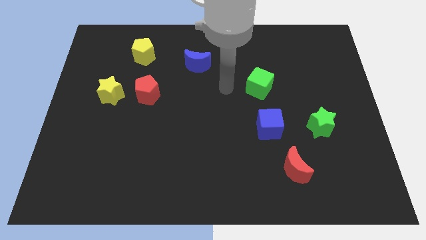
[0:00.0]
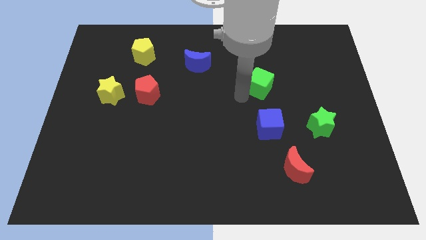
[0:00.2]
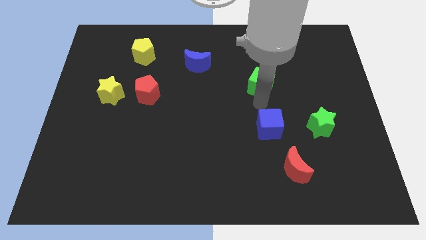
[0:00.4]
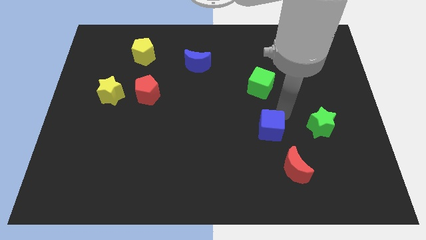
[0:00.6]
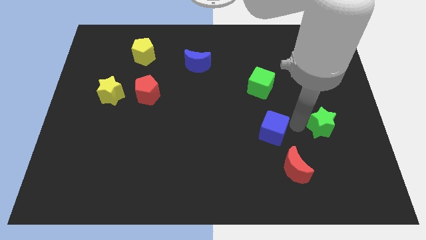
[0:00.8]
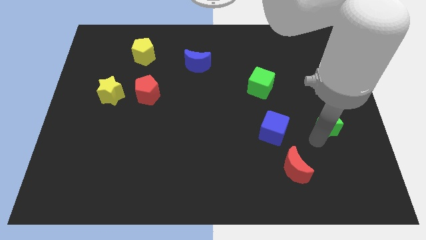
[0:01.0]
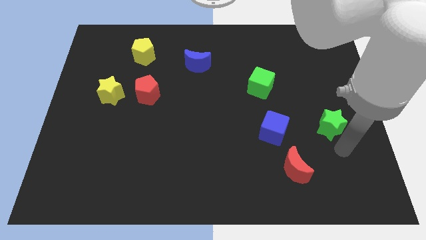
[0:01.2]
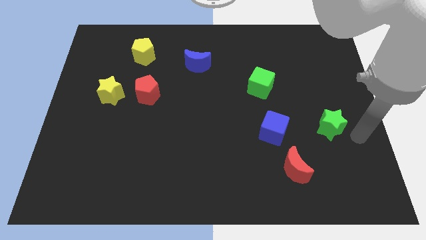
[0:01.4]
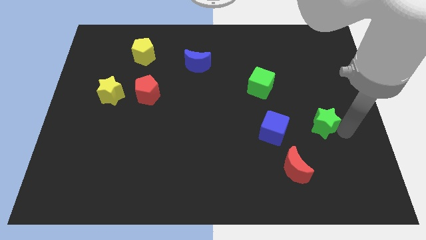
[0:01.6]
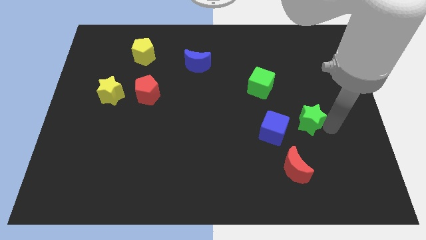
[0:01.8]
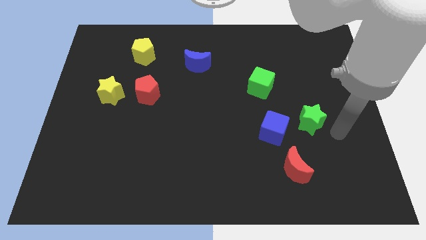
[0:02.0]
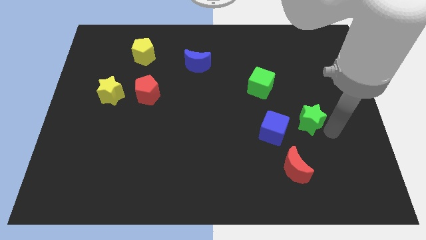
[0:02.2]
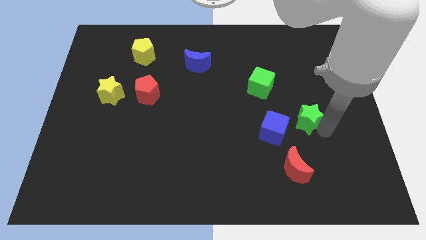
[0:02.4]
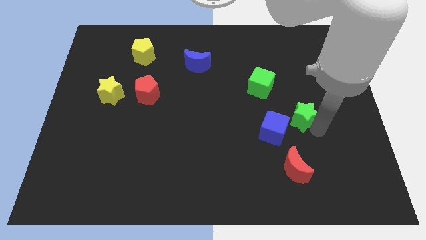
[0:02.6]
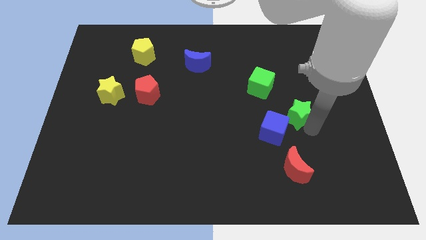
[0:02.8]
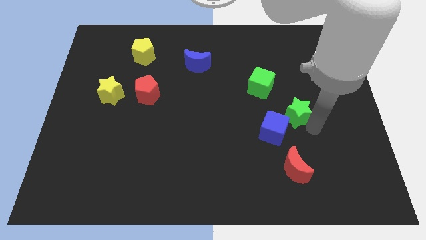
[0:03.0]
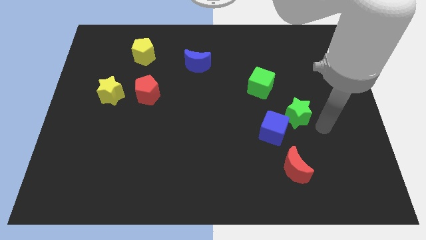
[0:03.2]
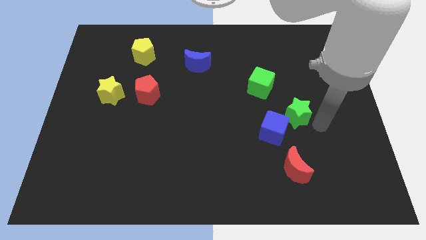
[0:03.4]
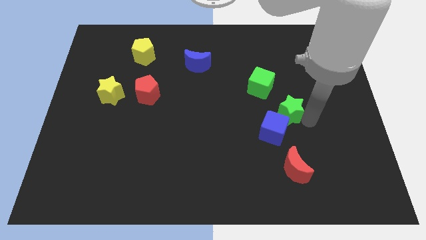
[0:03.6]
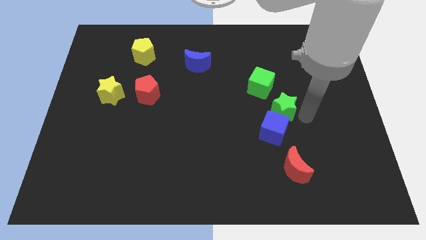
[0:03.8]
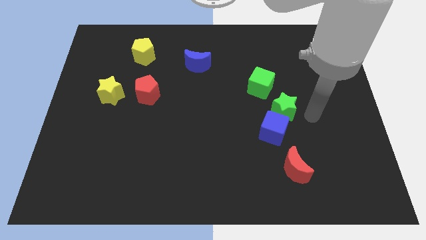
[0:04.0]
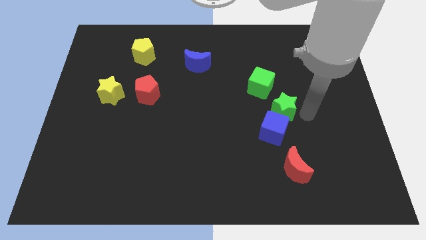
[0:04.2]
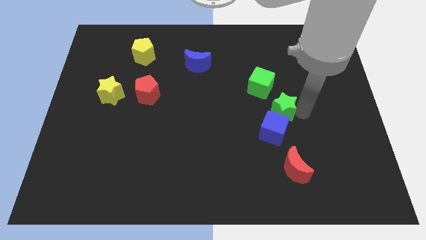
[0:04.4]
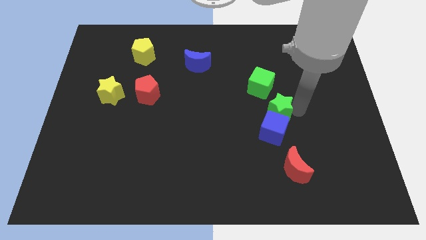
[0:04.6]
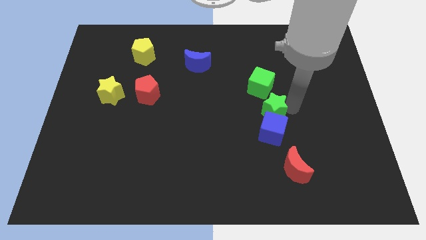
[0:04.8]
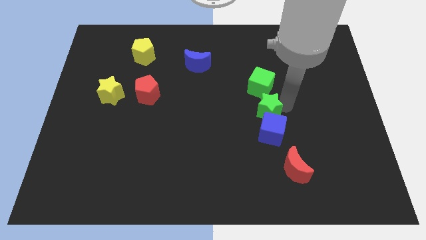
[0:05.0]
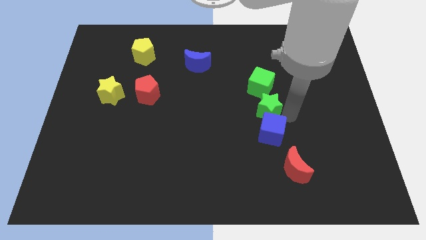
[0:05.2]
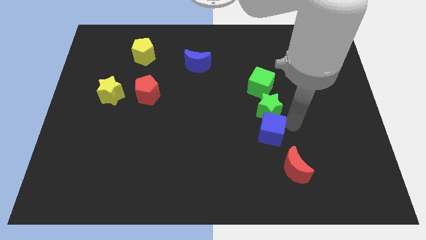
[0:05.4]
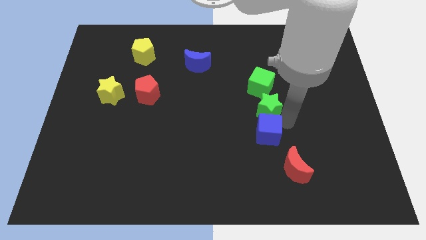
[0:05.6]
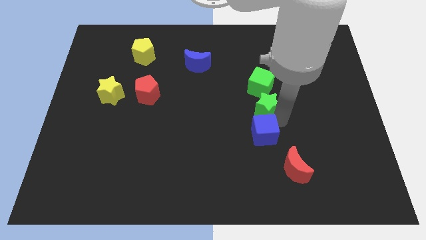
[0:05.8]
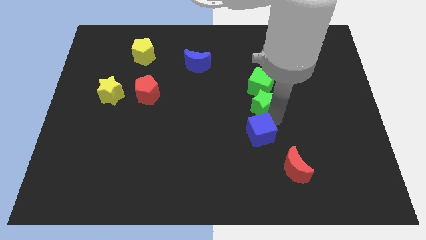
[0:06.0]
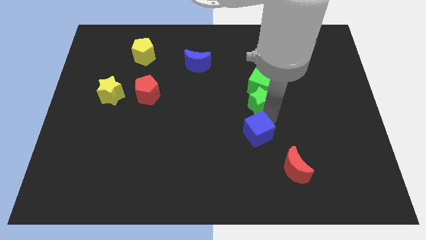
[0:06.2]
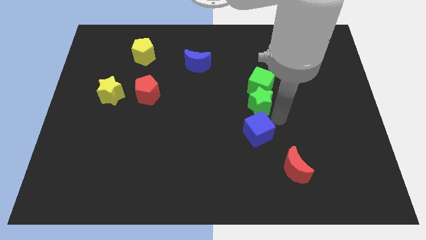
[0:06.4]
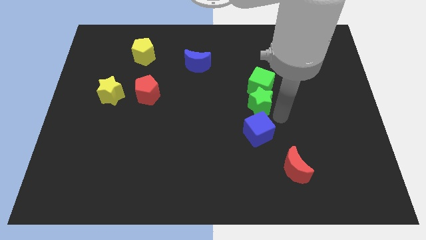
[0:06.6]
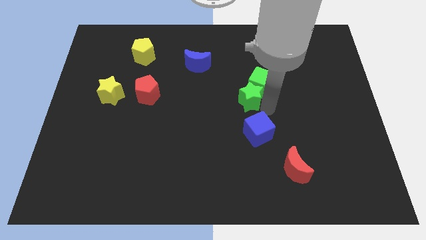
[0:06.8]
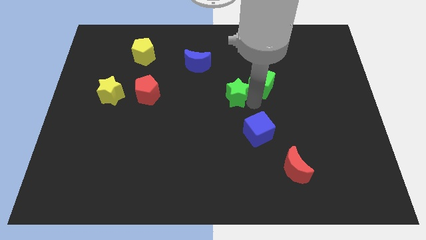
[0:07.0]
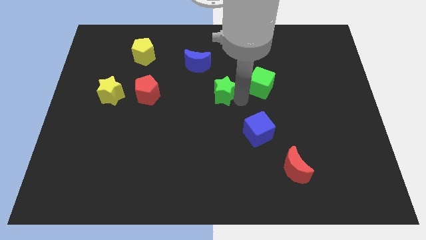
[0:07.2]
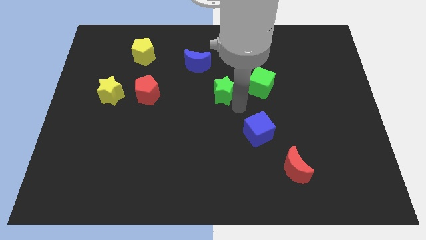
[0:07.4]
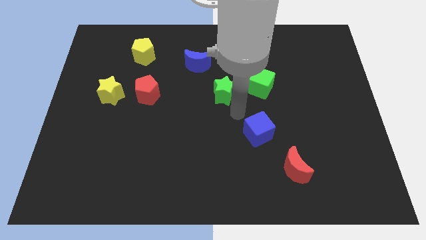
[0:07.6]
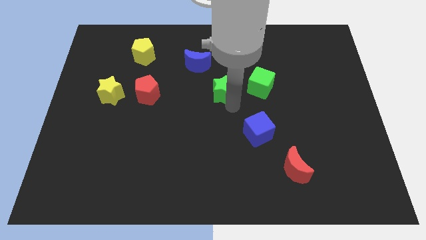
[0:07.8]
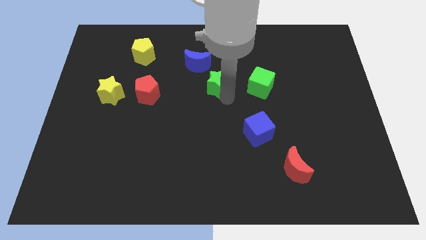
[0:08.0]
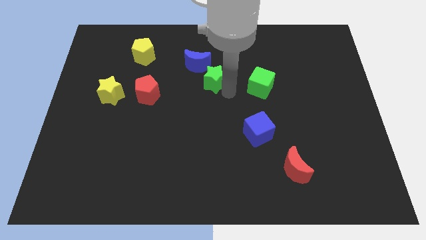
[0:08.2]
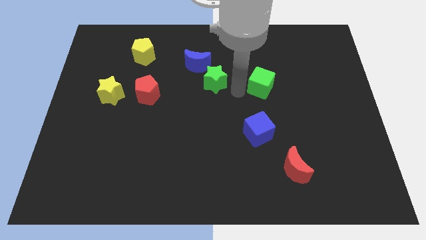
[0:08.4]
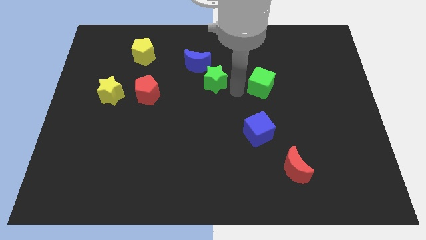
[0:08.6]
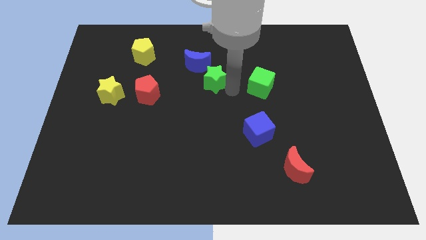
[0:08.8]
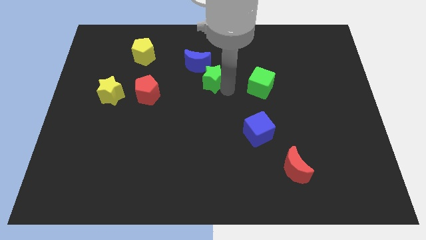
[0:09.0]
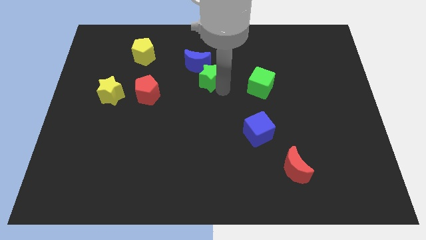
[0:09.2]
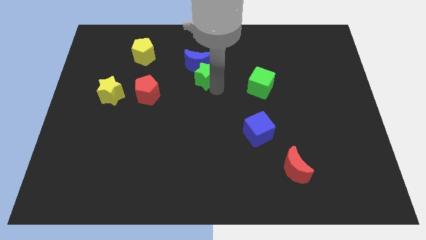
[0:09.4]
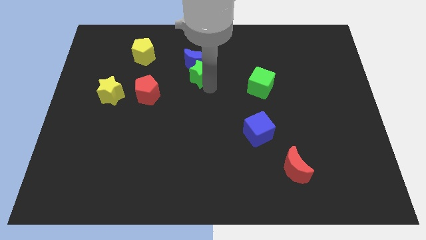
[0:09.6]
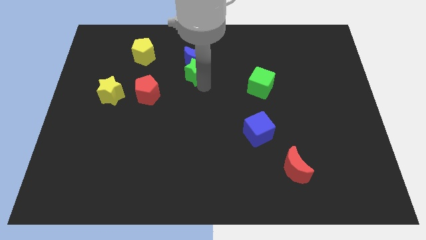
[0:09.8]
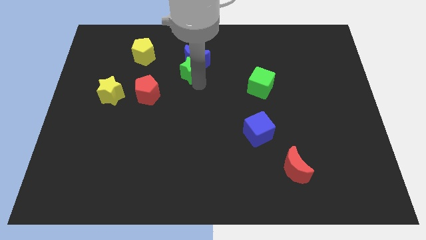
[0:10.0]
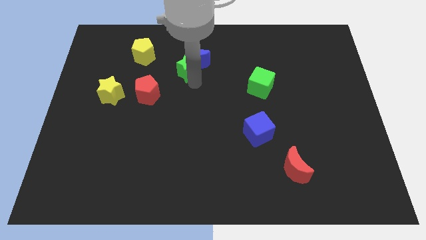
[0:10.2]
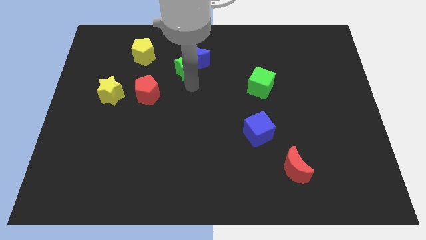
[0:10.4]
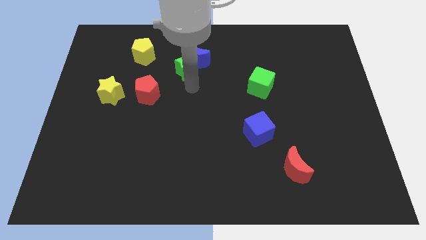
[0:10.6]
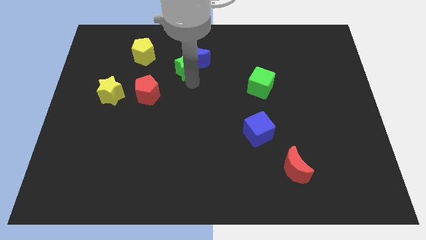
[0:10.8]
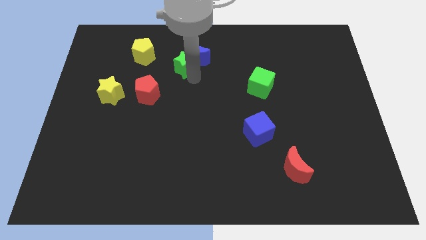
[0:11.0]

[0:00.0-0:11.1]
slide the green star just right of the yellow pentagon

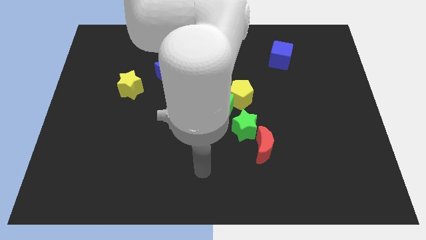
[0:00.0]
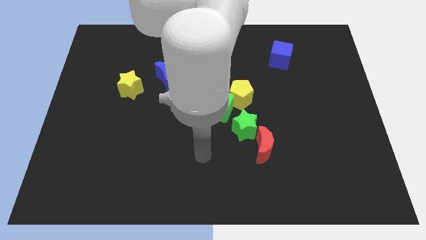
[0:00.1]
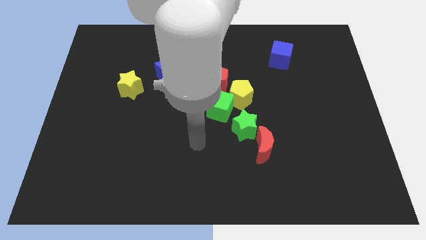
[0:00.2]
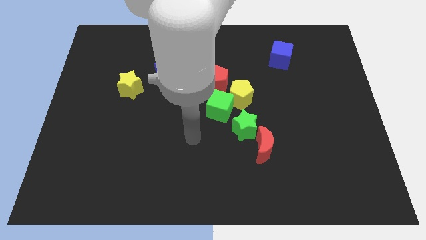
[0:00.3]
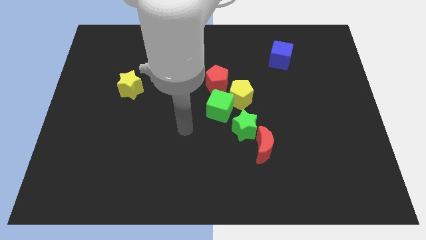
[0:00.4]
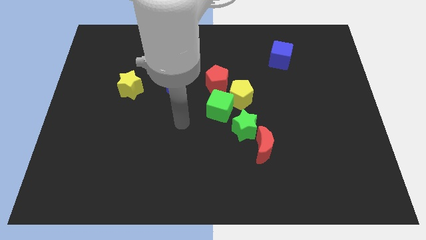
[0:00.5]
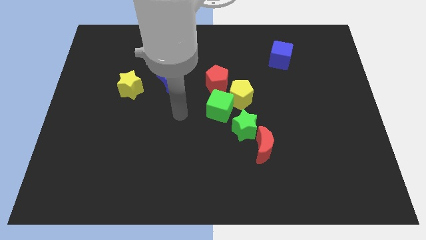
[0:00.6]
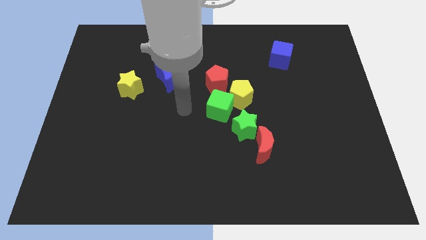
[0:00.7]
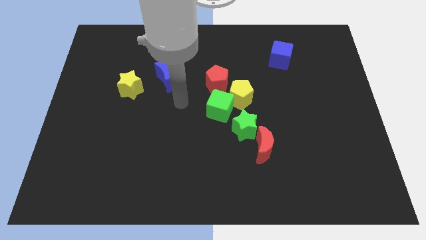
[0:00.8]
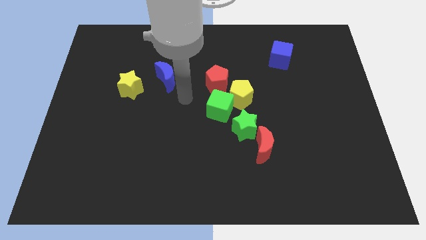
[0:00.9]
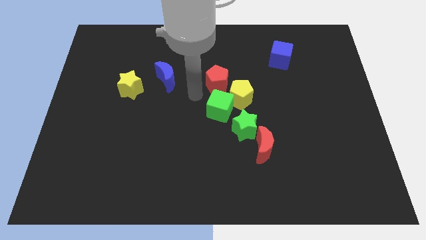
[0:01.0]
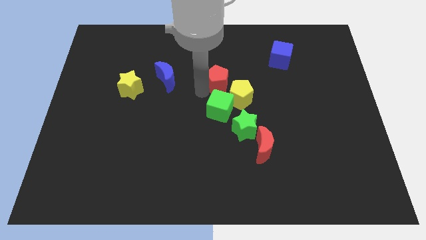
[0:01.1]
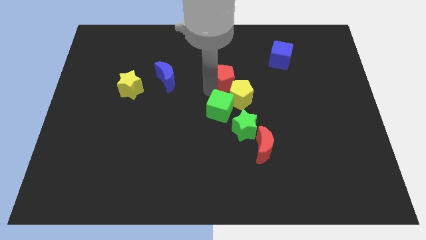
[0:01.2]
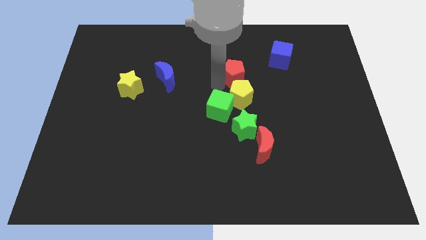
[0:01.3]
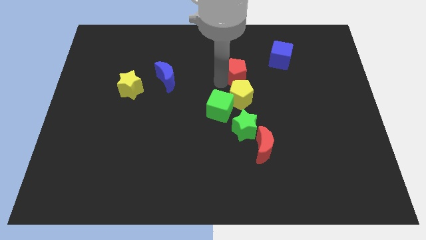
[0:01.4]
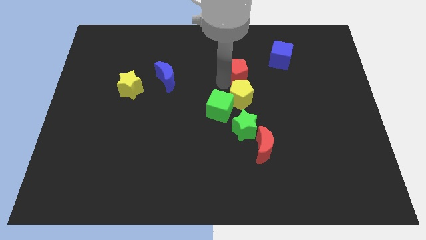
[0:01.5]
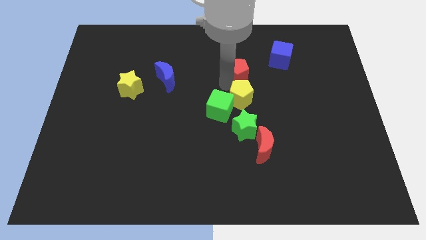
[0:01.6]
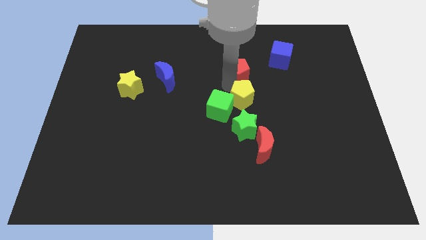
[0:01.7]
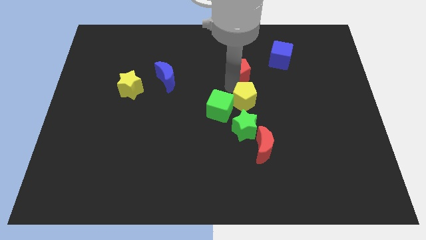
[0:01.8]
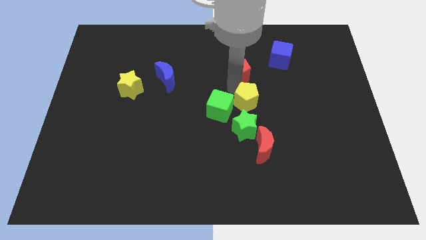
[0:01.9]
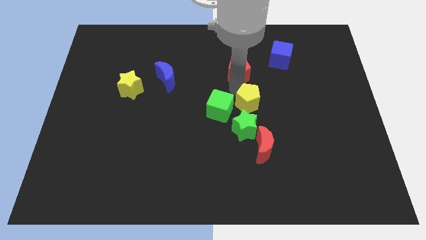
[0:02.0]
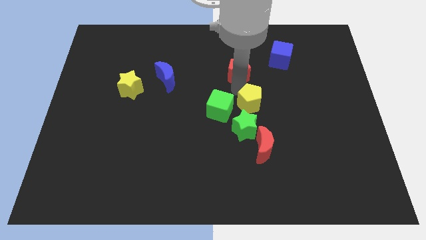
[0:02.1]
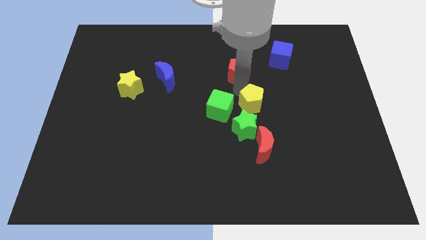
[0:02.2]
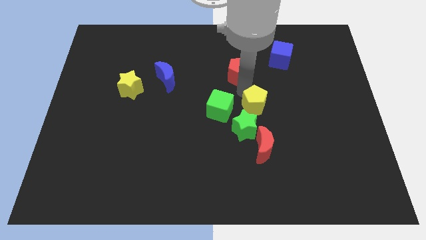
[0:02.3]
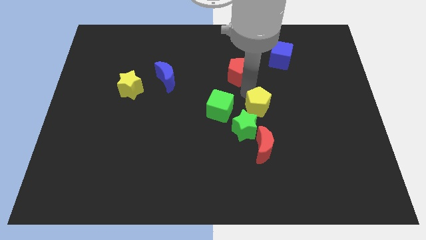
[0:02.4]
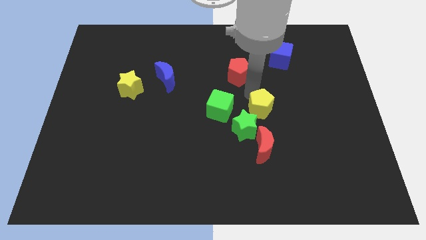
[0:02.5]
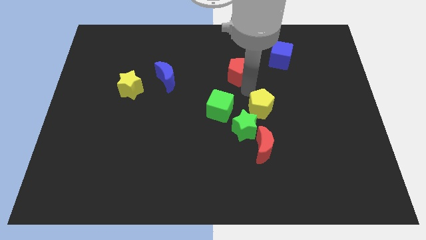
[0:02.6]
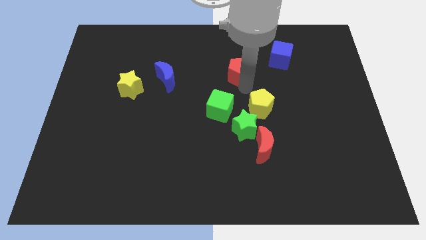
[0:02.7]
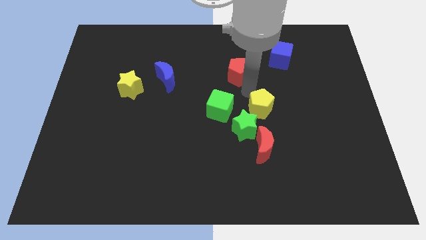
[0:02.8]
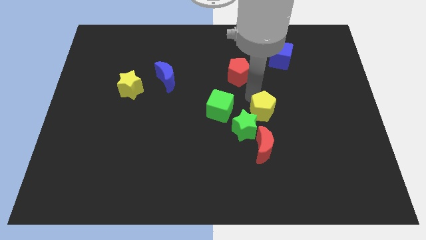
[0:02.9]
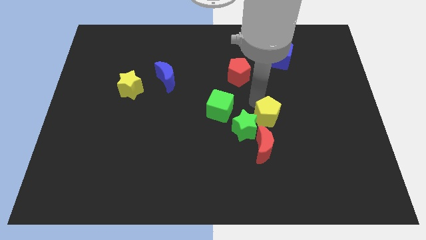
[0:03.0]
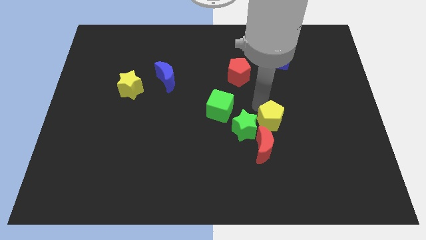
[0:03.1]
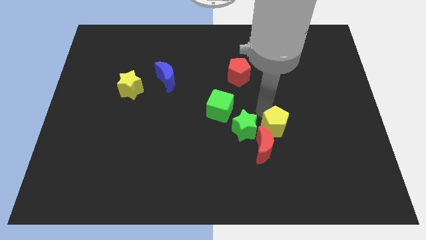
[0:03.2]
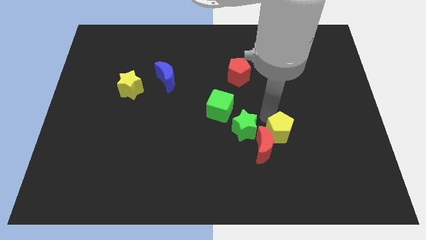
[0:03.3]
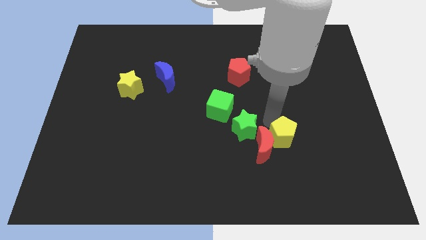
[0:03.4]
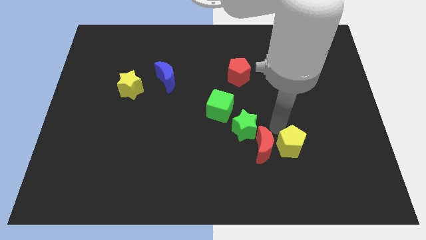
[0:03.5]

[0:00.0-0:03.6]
move the yellow pentagon to the bottom right side of the red moon
